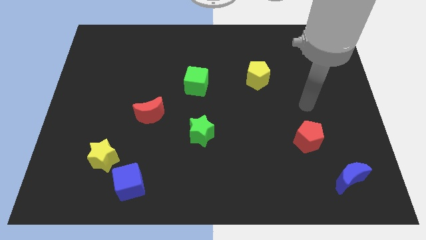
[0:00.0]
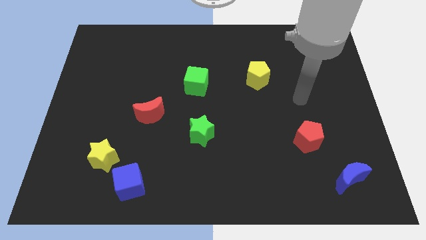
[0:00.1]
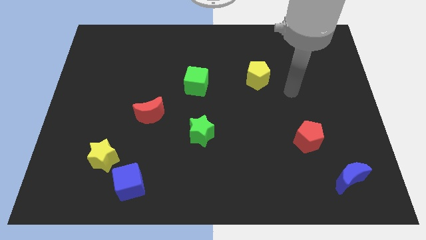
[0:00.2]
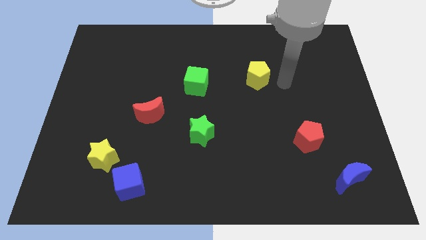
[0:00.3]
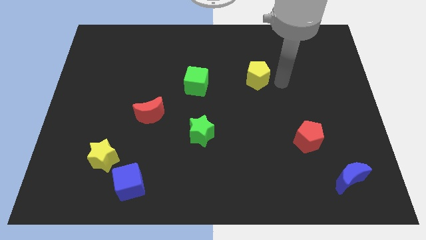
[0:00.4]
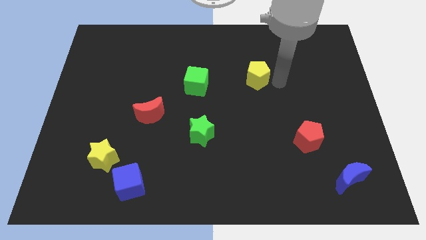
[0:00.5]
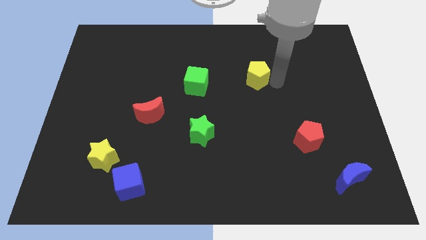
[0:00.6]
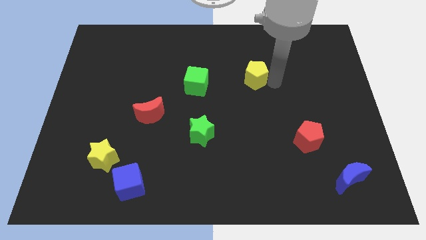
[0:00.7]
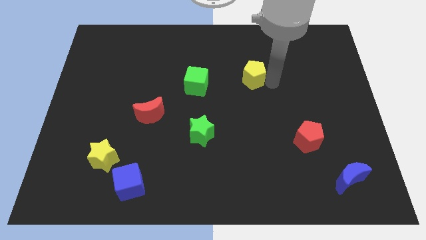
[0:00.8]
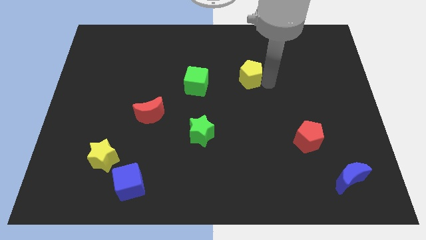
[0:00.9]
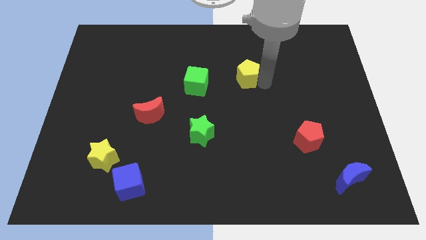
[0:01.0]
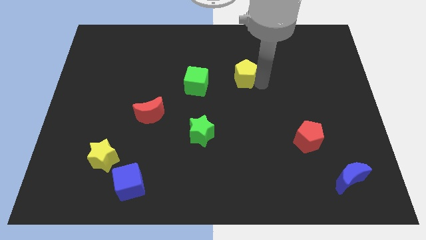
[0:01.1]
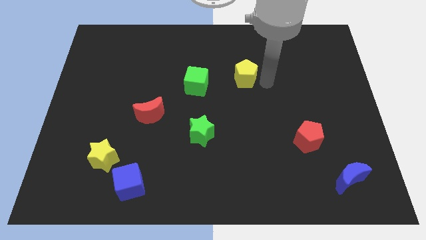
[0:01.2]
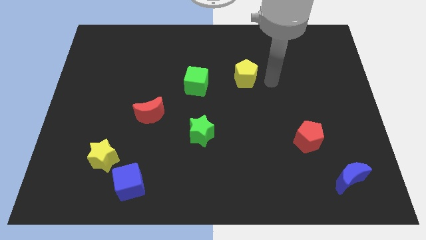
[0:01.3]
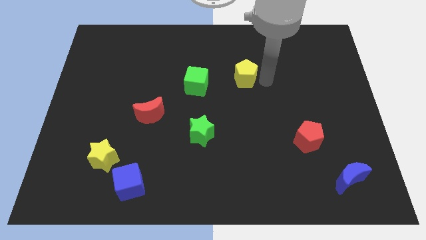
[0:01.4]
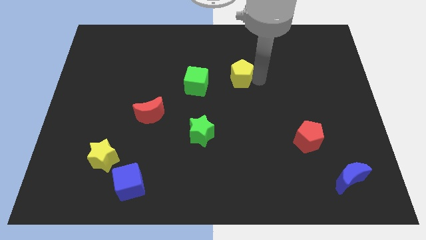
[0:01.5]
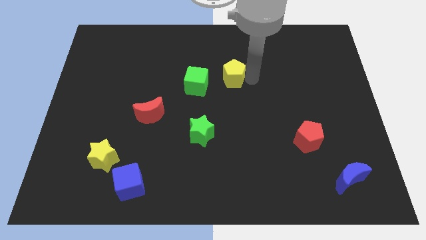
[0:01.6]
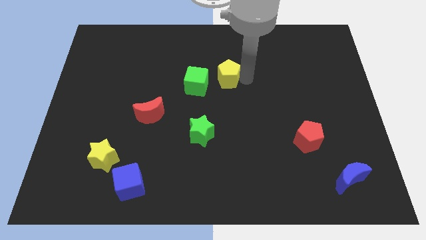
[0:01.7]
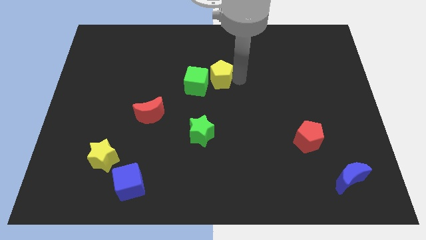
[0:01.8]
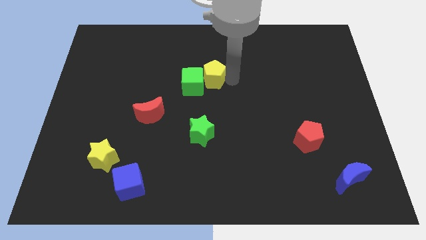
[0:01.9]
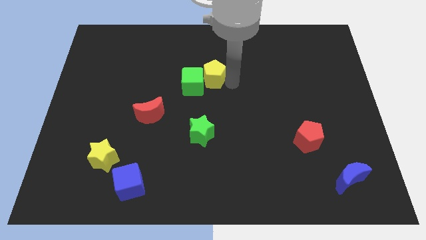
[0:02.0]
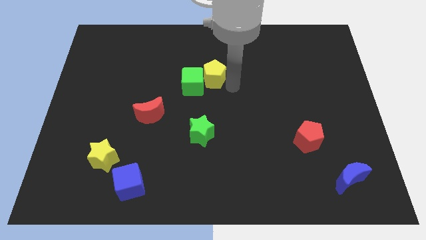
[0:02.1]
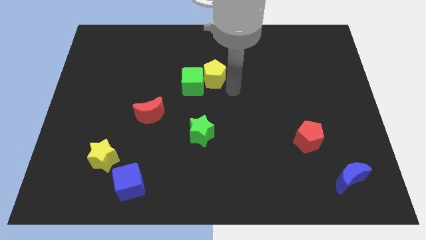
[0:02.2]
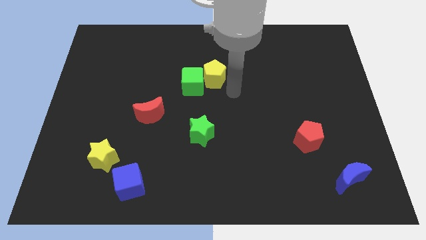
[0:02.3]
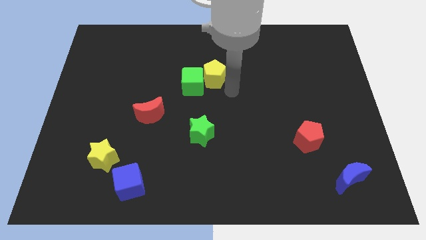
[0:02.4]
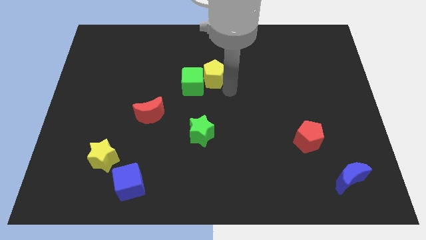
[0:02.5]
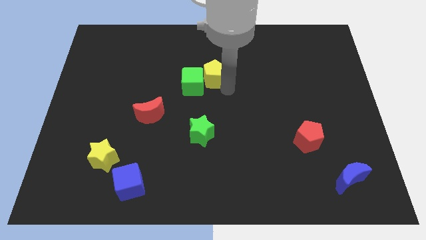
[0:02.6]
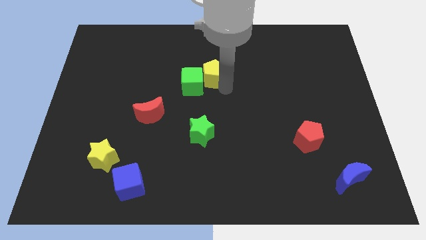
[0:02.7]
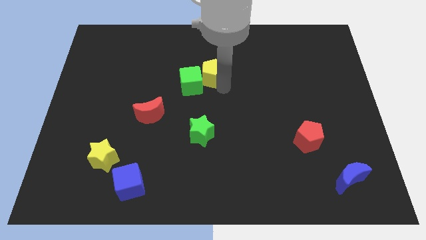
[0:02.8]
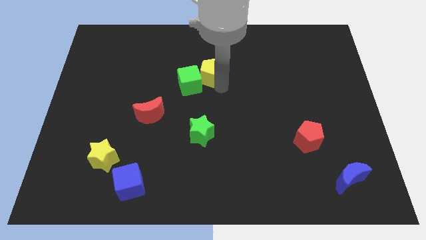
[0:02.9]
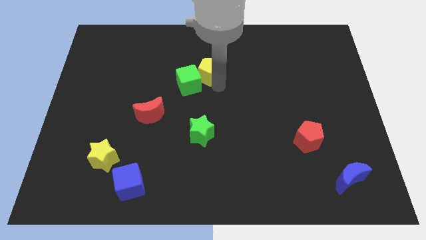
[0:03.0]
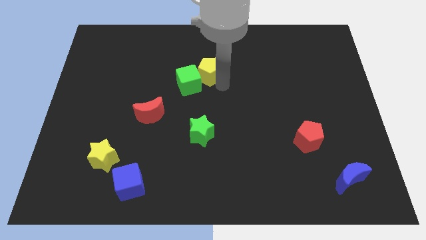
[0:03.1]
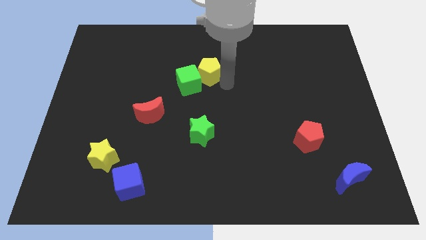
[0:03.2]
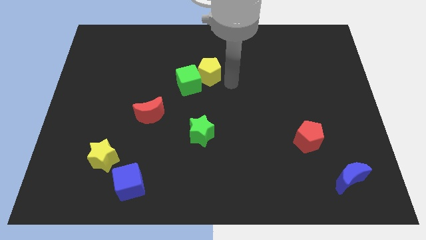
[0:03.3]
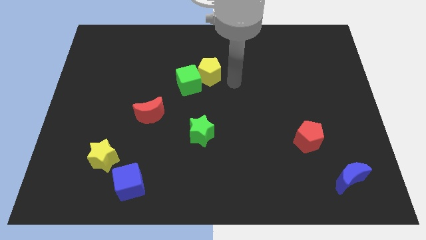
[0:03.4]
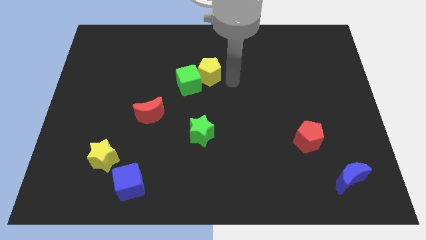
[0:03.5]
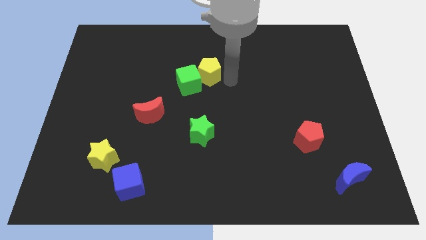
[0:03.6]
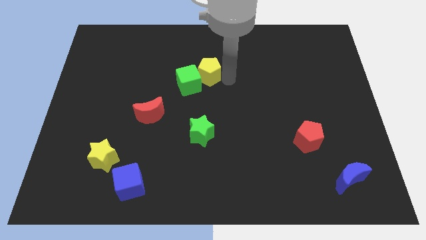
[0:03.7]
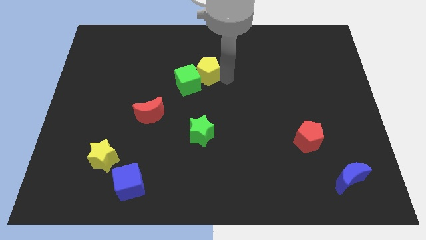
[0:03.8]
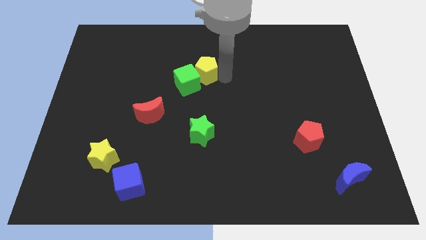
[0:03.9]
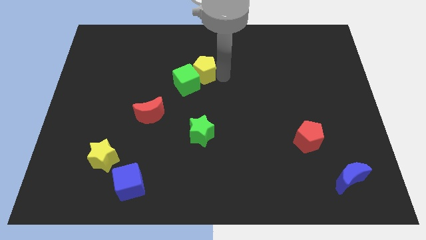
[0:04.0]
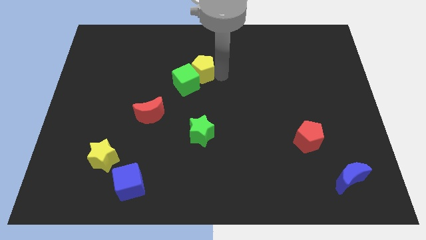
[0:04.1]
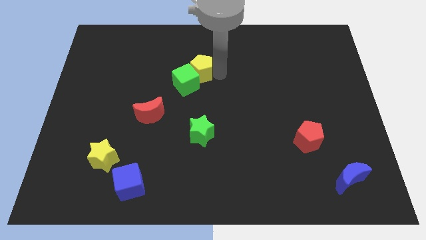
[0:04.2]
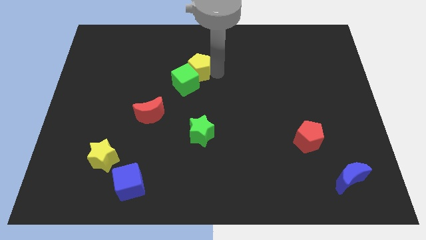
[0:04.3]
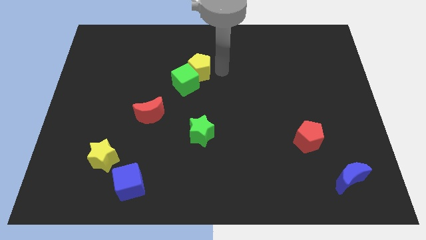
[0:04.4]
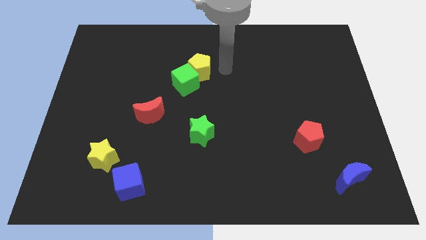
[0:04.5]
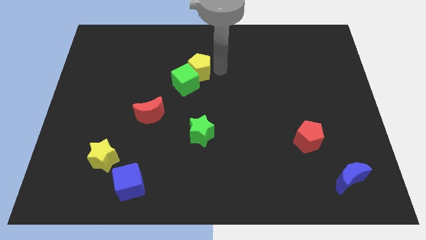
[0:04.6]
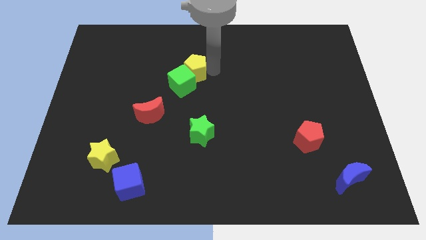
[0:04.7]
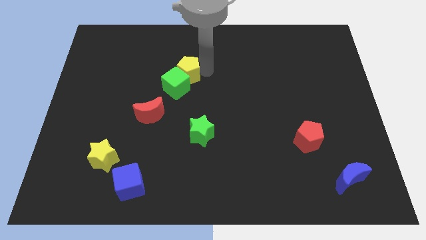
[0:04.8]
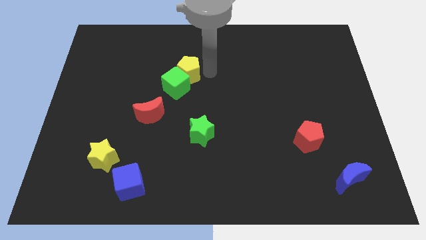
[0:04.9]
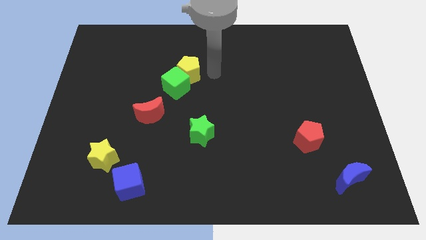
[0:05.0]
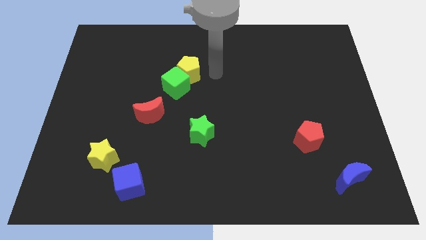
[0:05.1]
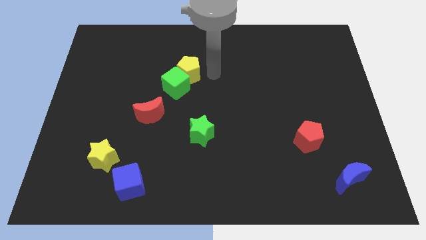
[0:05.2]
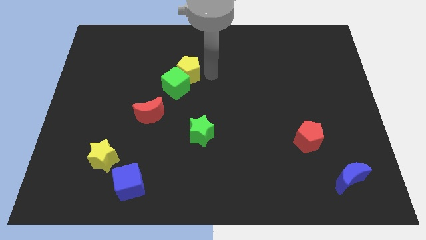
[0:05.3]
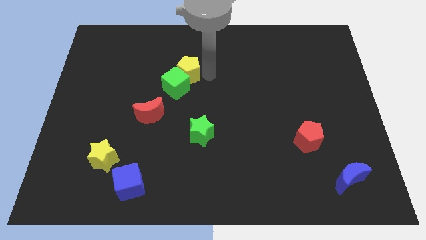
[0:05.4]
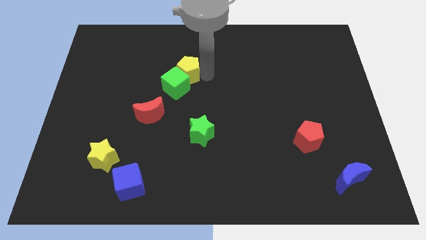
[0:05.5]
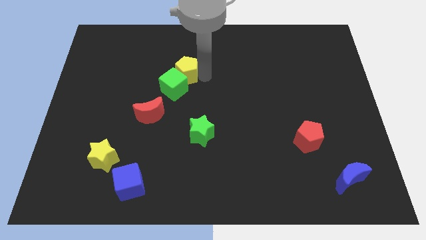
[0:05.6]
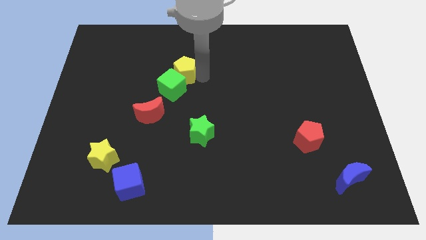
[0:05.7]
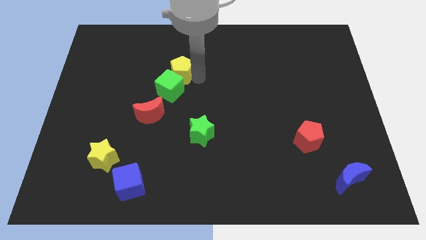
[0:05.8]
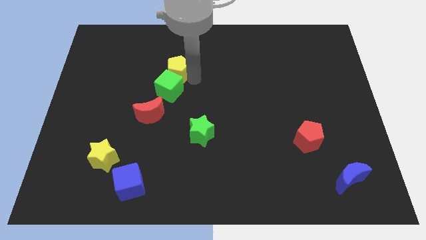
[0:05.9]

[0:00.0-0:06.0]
slide the yellow pentagon left

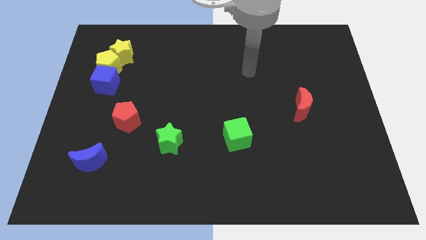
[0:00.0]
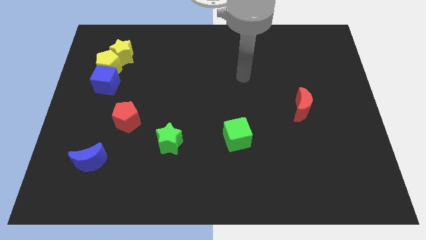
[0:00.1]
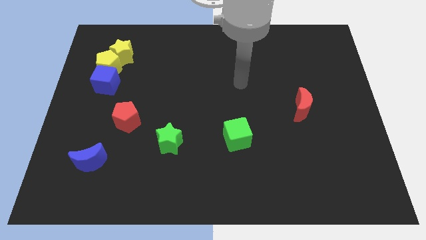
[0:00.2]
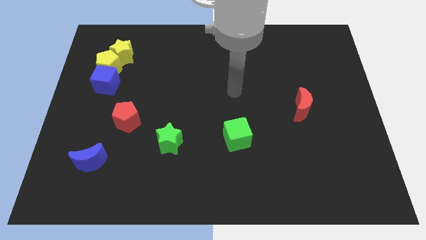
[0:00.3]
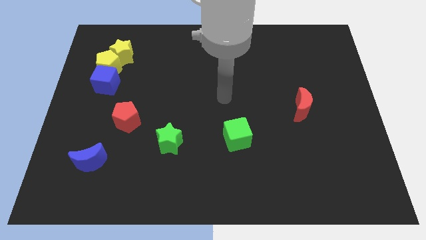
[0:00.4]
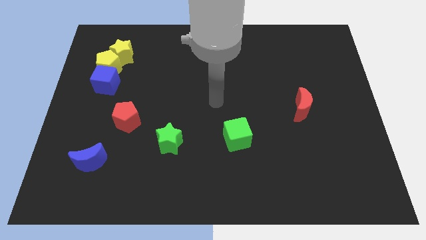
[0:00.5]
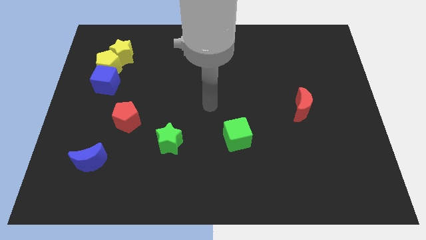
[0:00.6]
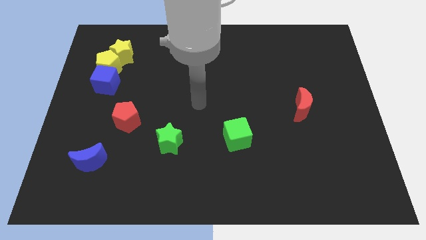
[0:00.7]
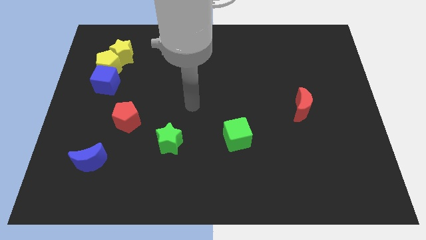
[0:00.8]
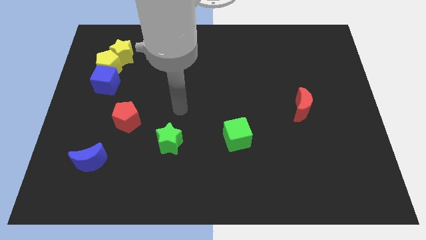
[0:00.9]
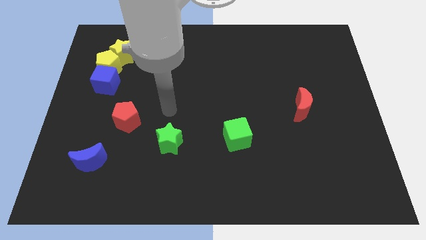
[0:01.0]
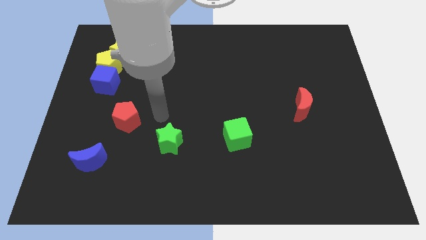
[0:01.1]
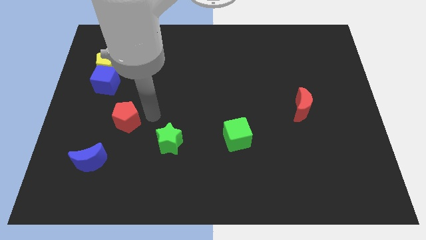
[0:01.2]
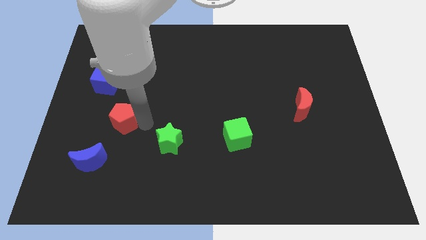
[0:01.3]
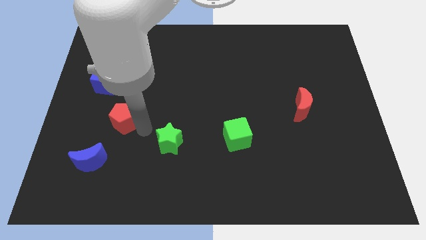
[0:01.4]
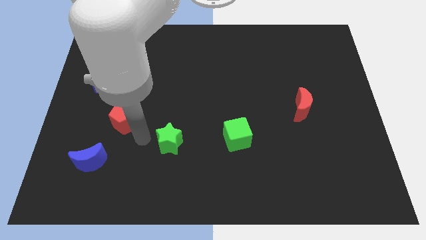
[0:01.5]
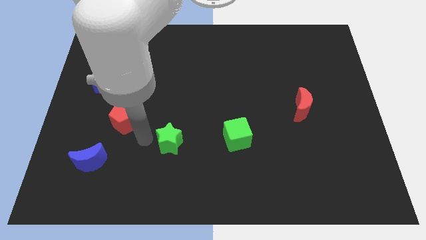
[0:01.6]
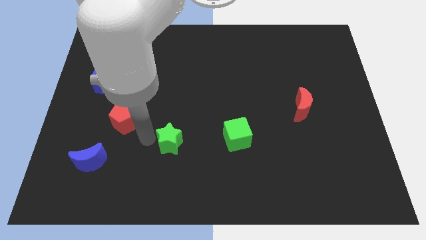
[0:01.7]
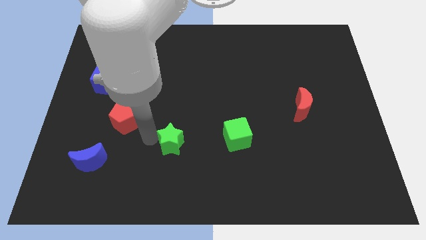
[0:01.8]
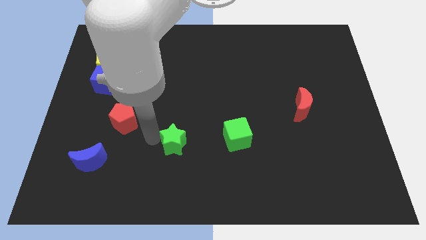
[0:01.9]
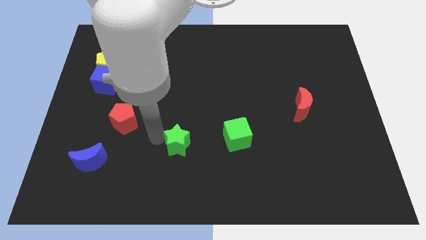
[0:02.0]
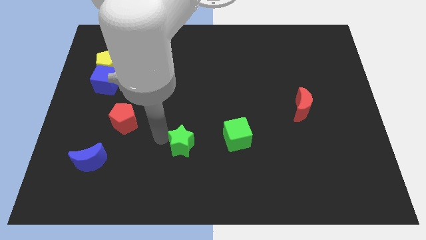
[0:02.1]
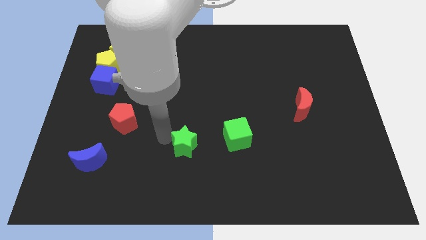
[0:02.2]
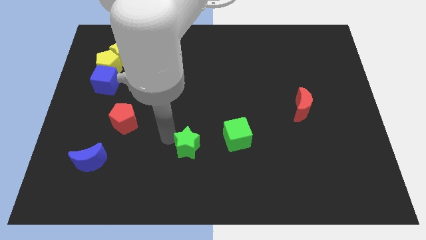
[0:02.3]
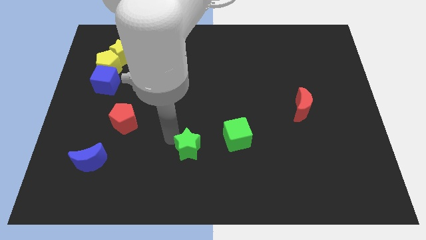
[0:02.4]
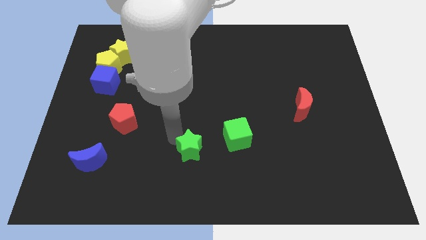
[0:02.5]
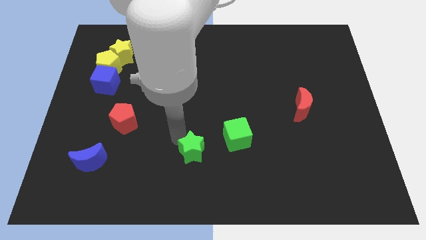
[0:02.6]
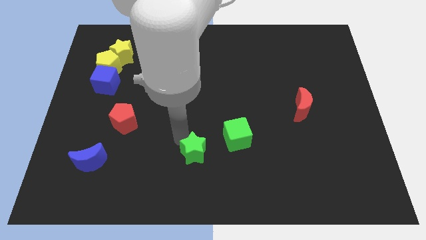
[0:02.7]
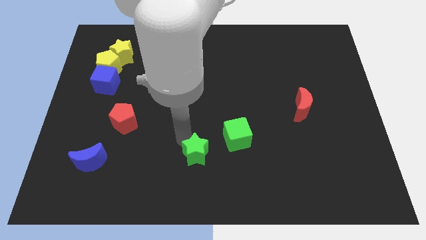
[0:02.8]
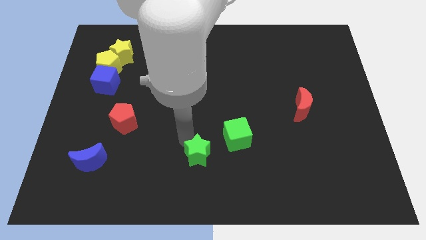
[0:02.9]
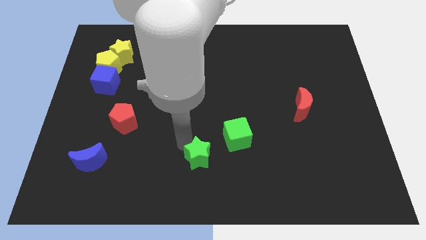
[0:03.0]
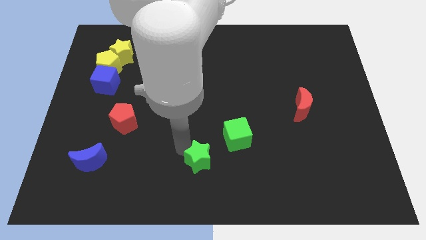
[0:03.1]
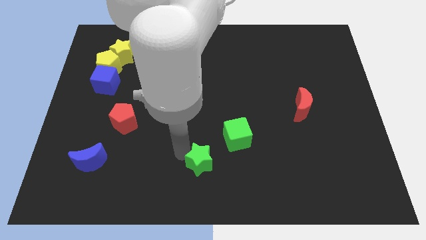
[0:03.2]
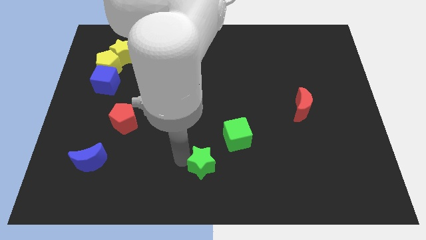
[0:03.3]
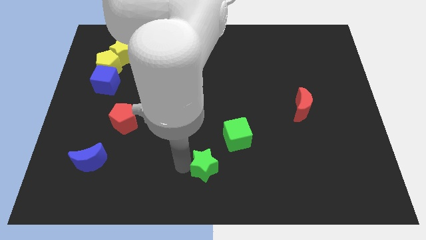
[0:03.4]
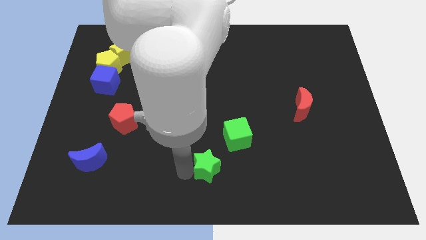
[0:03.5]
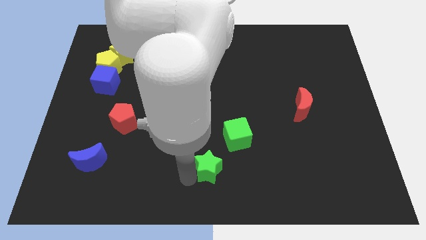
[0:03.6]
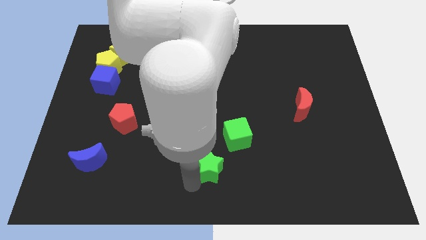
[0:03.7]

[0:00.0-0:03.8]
move the green star a little bit to the right
